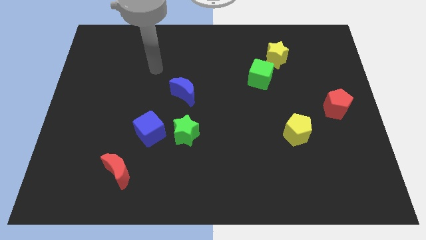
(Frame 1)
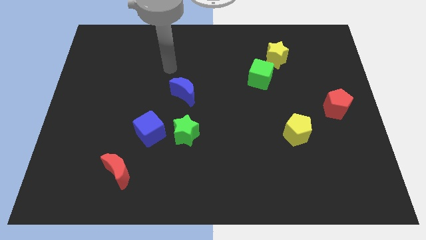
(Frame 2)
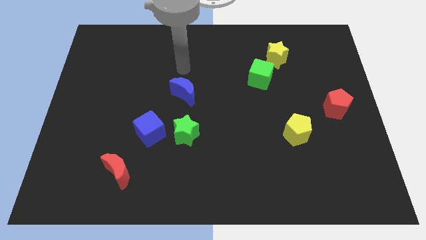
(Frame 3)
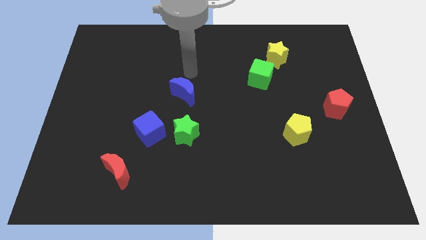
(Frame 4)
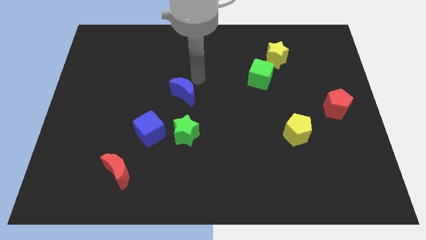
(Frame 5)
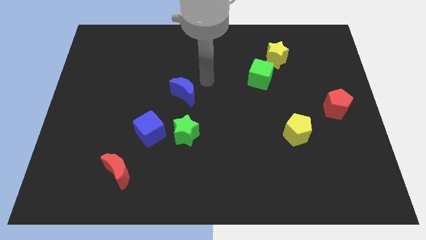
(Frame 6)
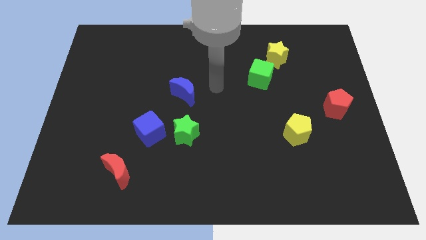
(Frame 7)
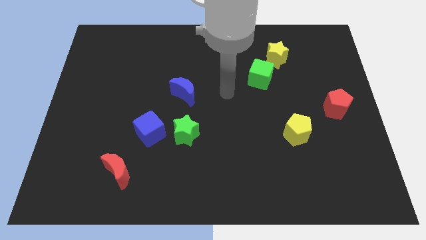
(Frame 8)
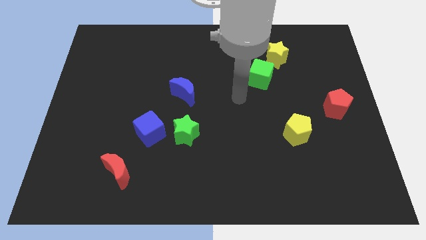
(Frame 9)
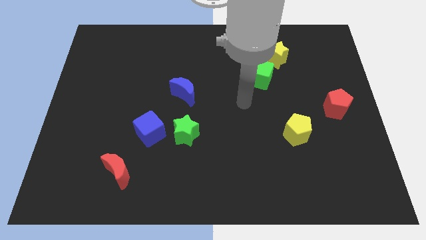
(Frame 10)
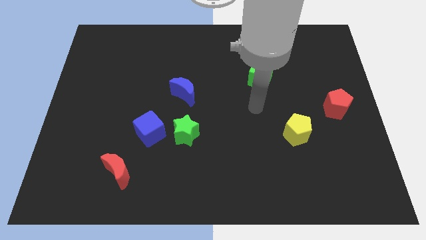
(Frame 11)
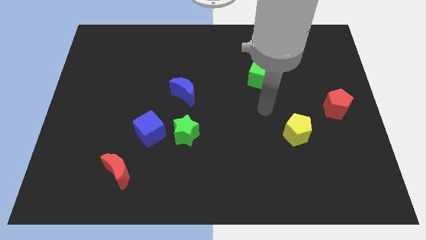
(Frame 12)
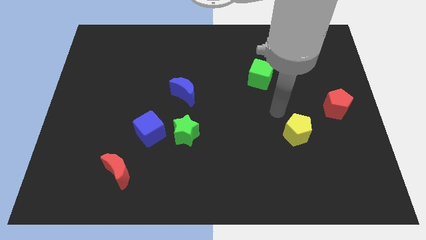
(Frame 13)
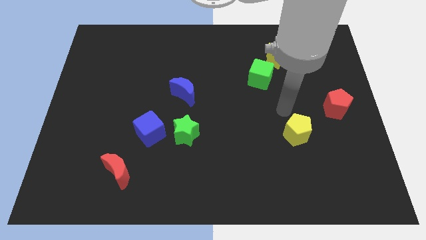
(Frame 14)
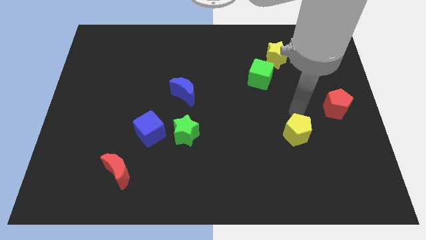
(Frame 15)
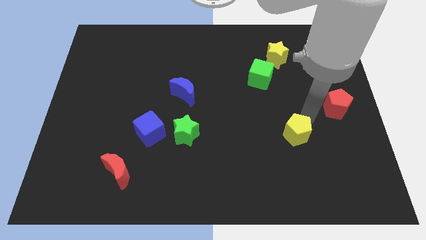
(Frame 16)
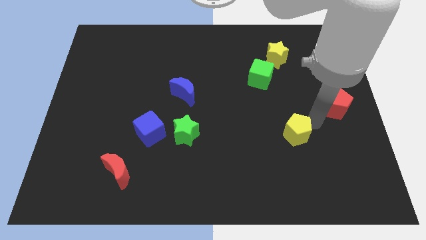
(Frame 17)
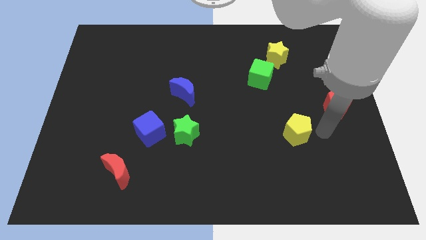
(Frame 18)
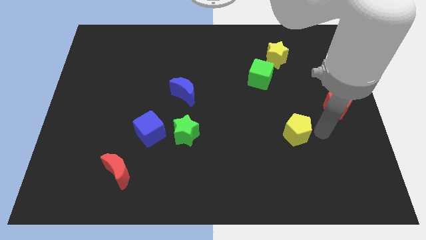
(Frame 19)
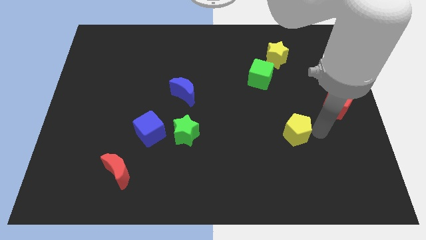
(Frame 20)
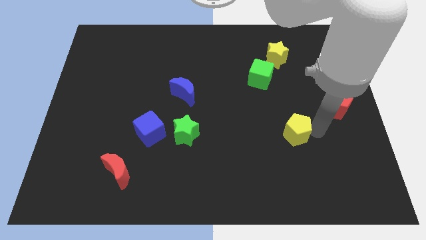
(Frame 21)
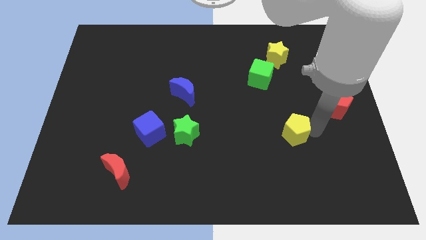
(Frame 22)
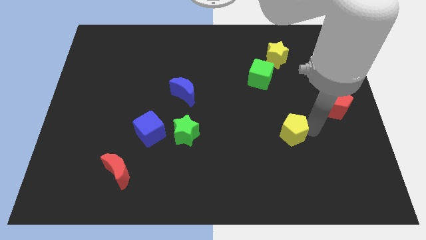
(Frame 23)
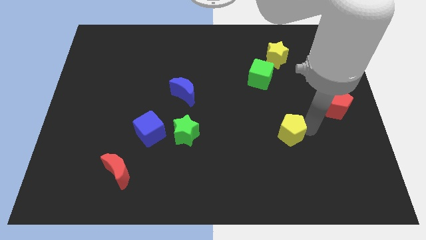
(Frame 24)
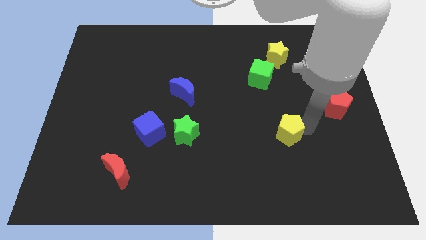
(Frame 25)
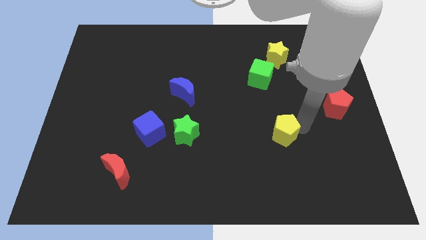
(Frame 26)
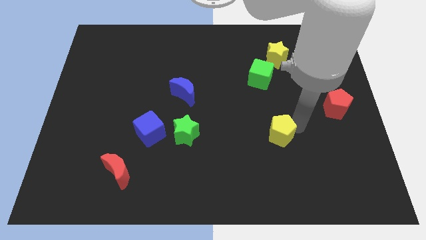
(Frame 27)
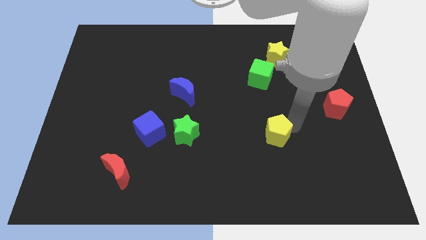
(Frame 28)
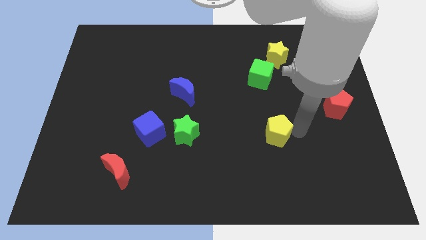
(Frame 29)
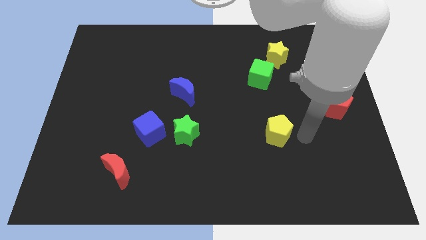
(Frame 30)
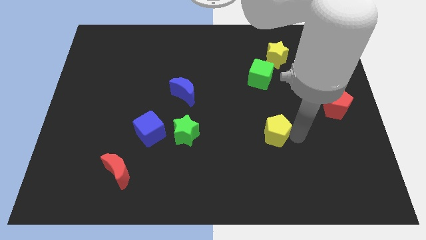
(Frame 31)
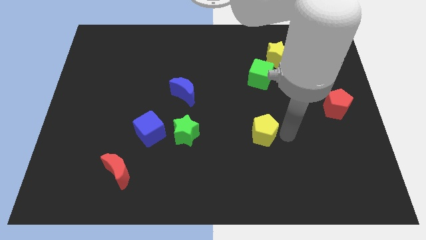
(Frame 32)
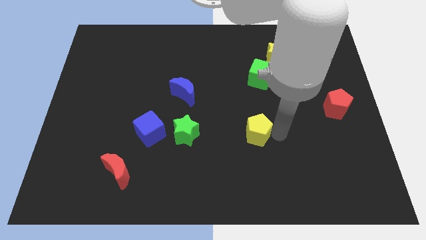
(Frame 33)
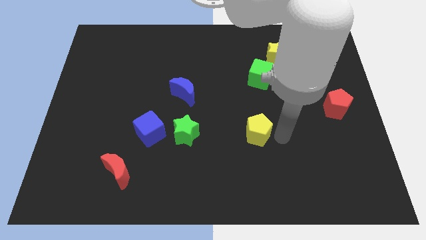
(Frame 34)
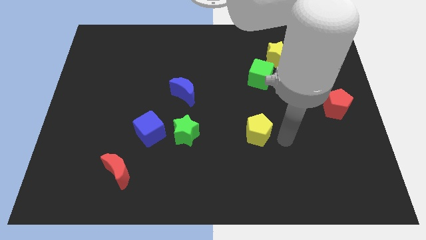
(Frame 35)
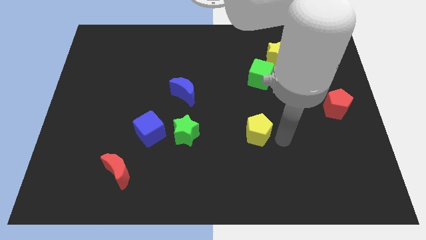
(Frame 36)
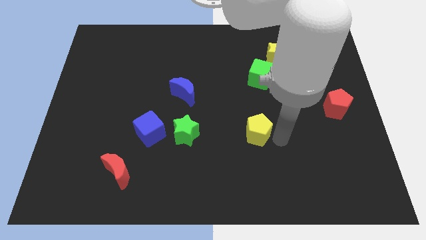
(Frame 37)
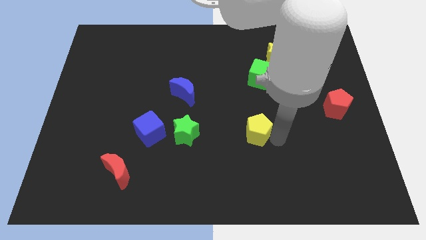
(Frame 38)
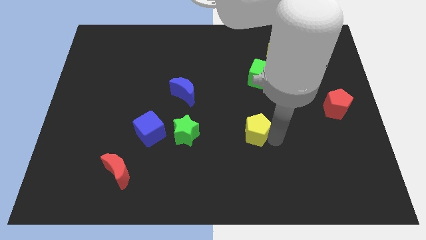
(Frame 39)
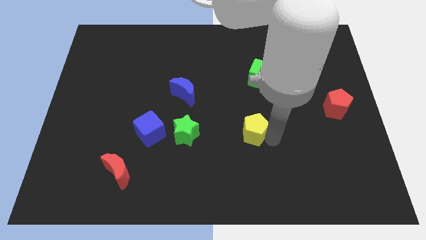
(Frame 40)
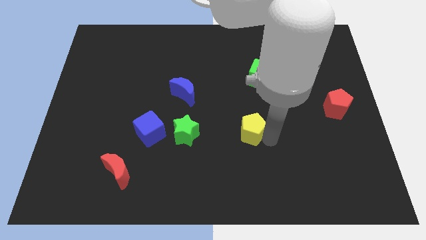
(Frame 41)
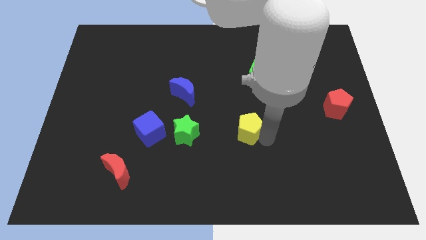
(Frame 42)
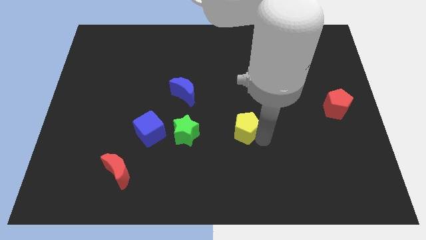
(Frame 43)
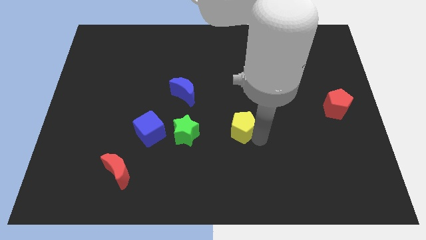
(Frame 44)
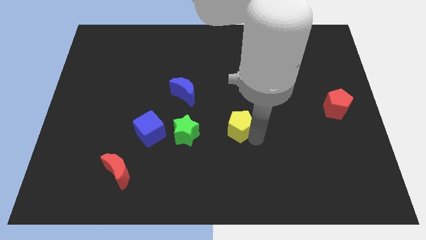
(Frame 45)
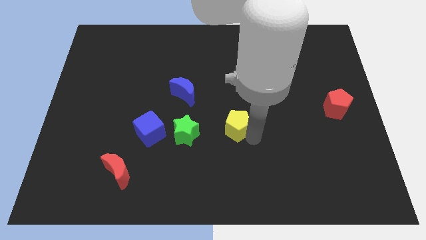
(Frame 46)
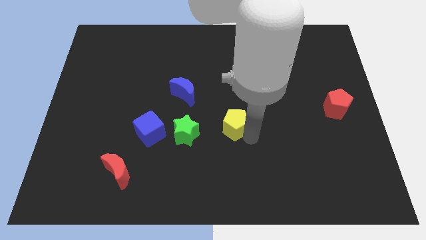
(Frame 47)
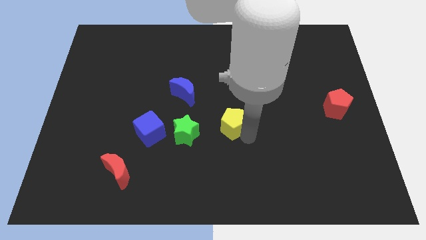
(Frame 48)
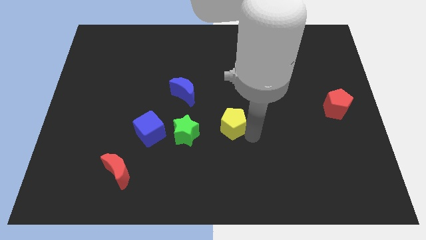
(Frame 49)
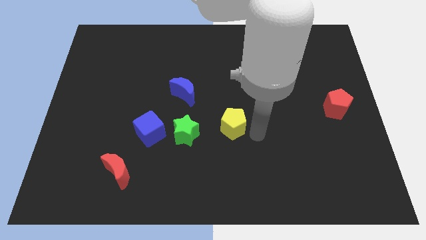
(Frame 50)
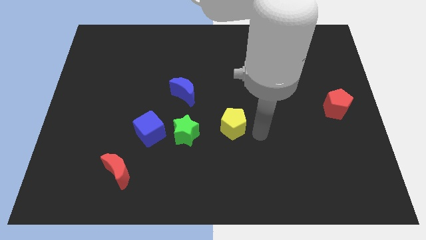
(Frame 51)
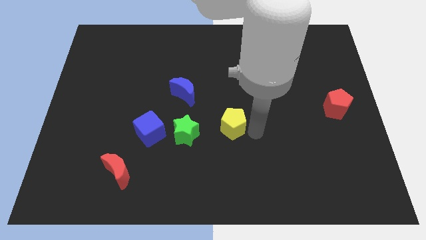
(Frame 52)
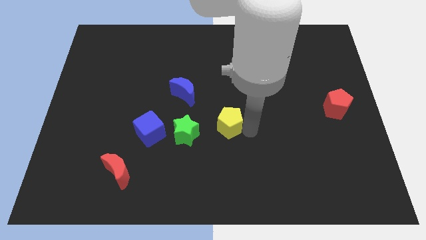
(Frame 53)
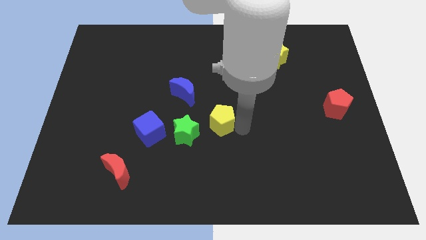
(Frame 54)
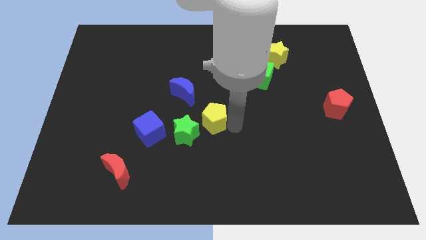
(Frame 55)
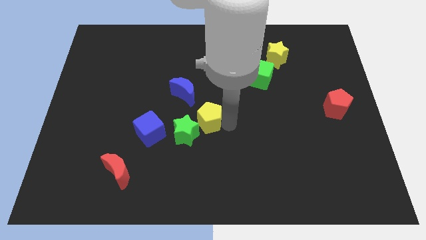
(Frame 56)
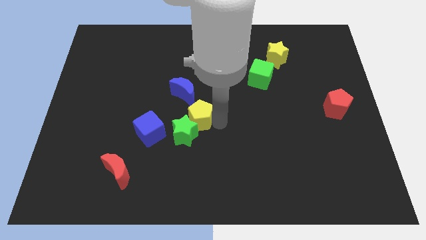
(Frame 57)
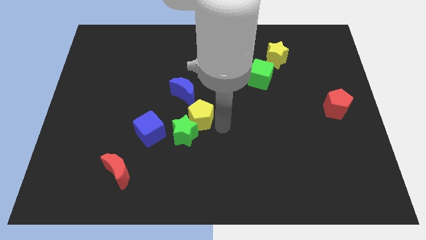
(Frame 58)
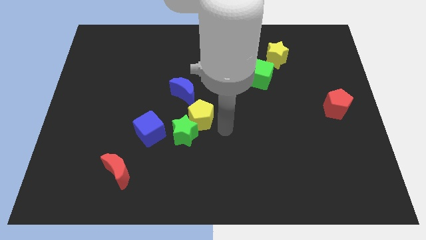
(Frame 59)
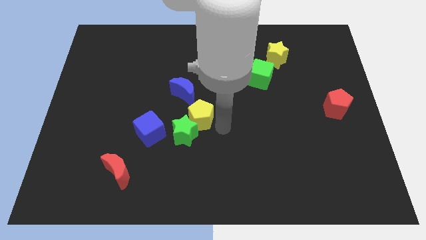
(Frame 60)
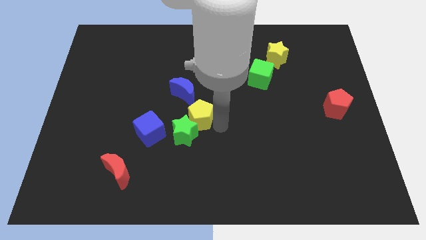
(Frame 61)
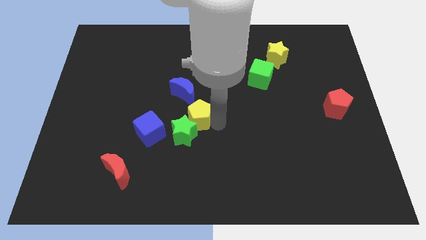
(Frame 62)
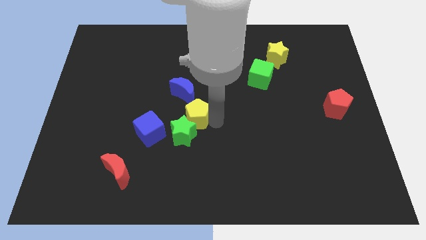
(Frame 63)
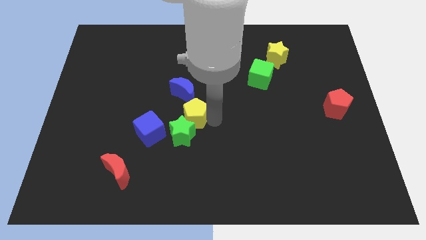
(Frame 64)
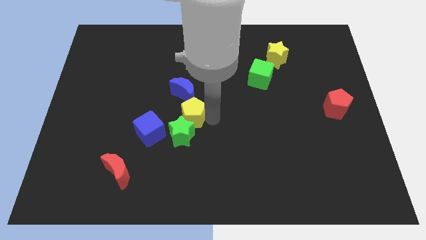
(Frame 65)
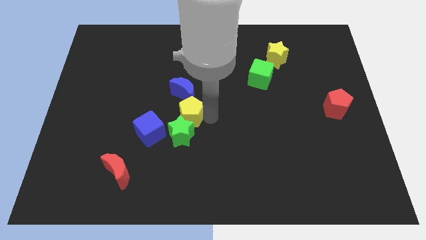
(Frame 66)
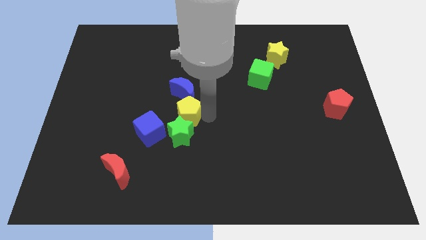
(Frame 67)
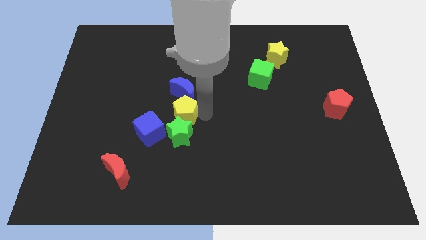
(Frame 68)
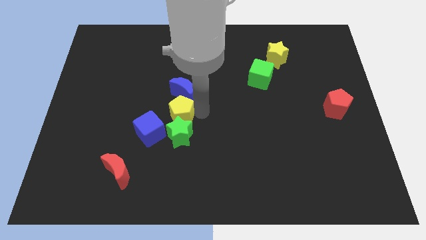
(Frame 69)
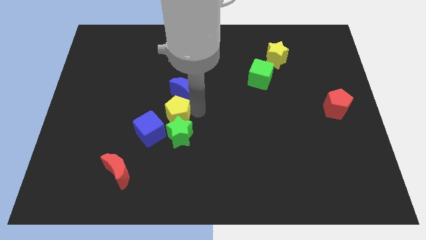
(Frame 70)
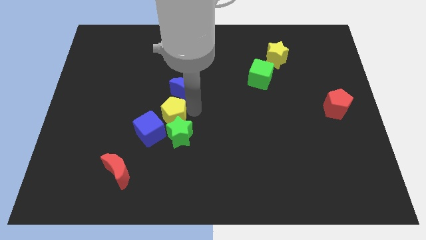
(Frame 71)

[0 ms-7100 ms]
move the yellow pentagon to the top side of the blue cube

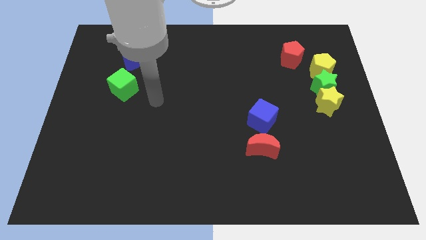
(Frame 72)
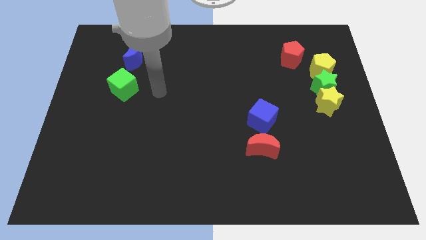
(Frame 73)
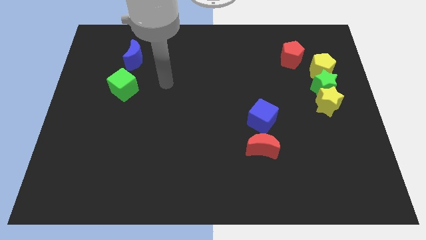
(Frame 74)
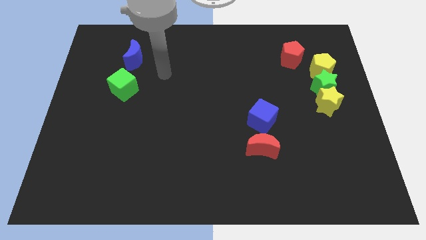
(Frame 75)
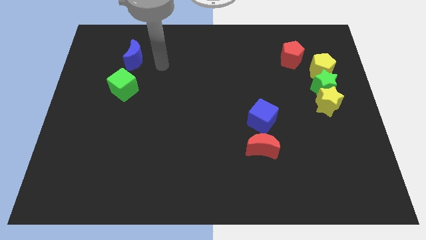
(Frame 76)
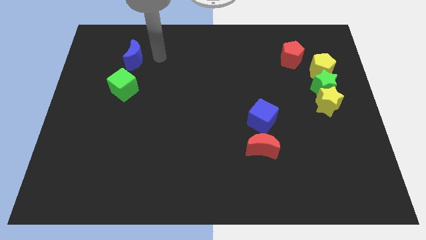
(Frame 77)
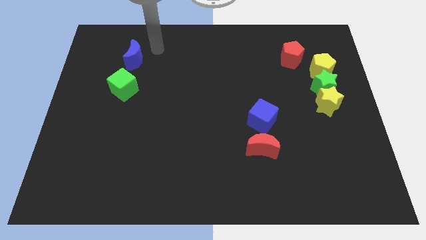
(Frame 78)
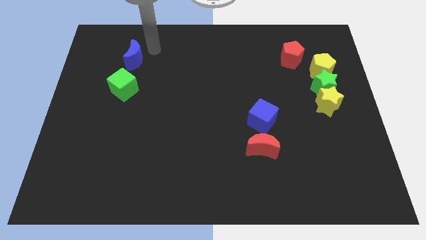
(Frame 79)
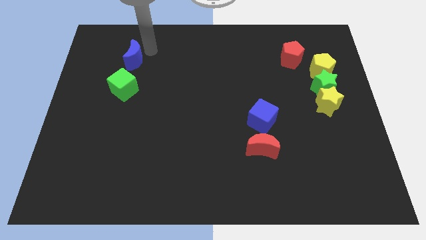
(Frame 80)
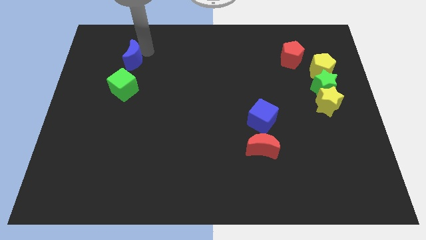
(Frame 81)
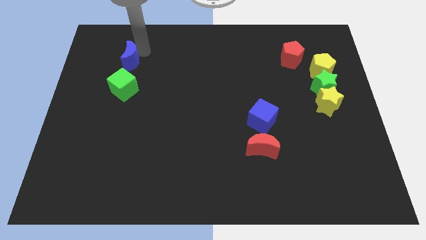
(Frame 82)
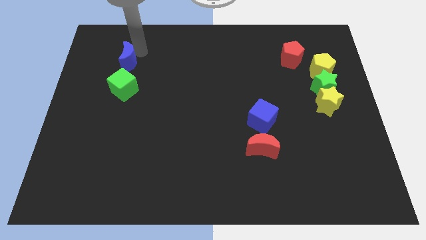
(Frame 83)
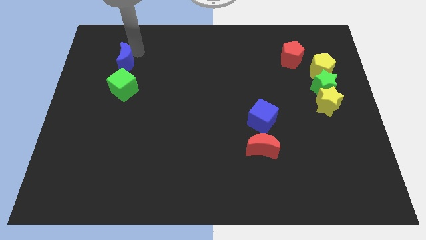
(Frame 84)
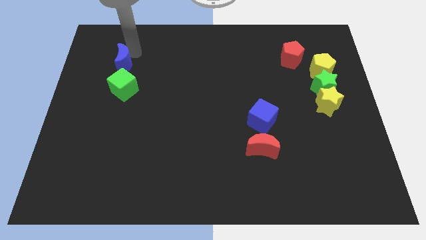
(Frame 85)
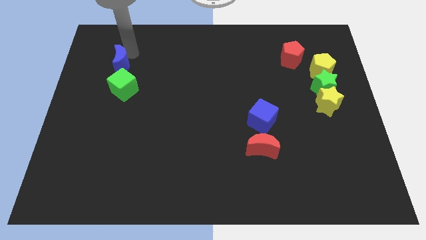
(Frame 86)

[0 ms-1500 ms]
slide the blue moon diagonally up and to the left of the green cube
